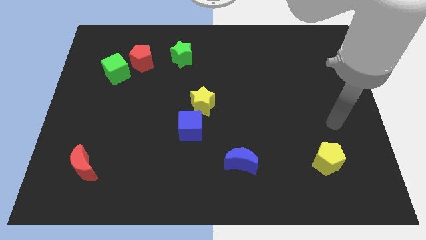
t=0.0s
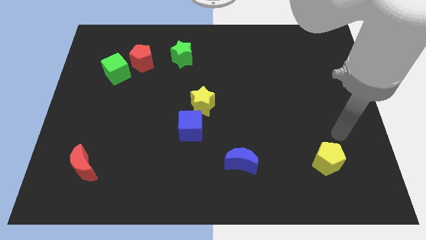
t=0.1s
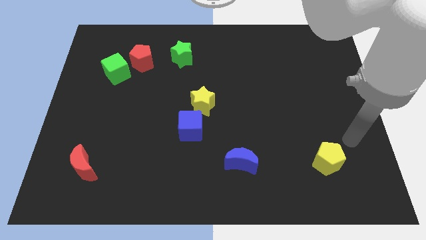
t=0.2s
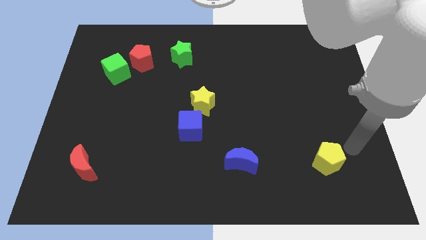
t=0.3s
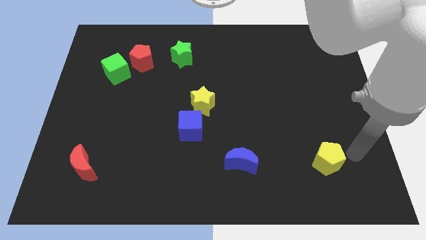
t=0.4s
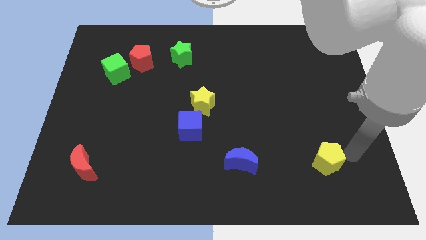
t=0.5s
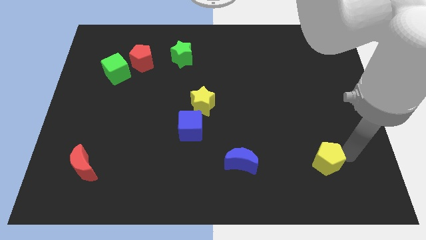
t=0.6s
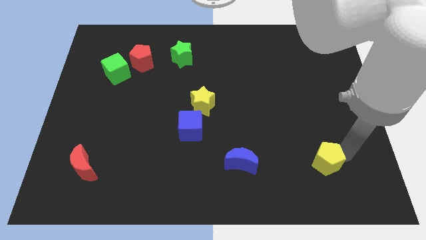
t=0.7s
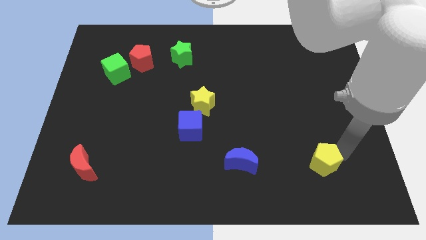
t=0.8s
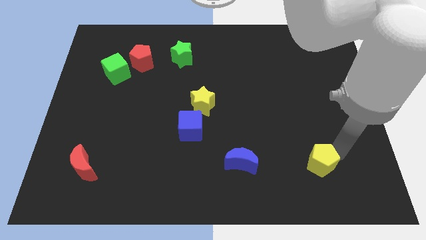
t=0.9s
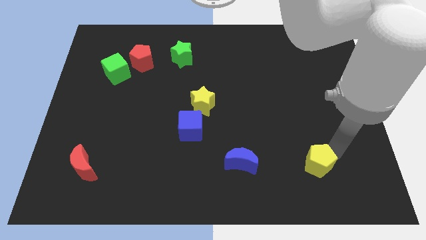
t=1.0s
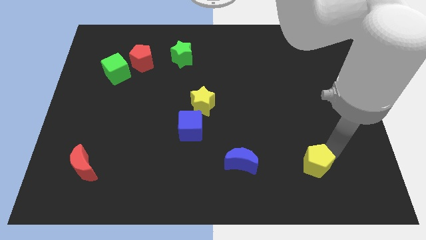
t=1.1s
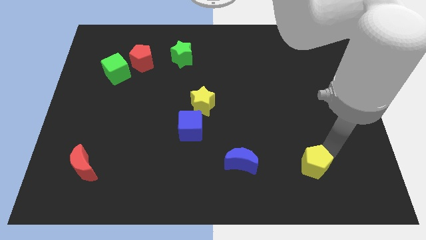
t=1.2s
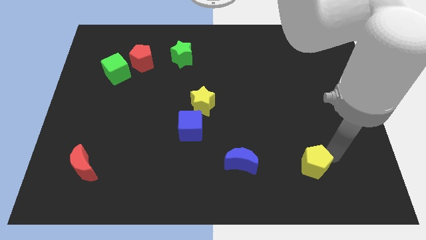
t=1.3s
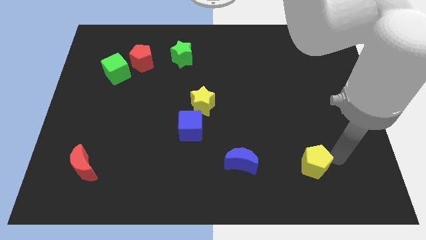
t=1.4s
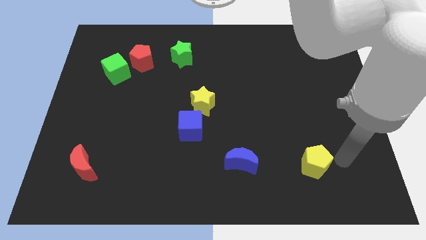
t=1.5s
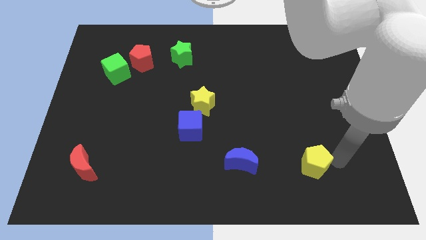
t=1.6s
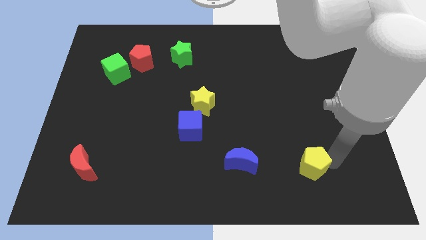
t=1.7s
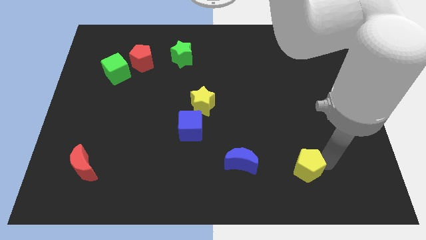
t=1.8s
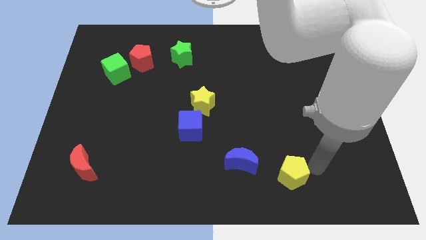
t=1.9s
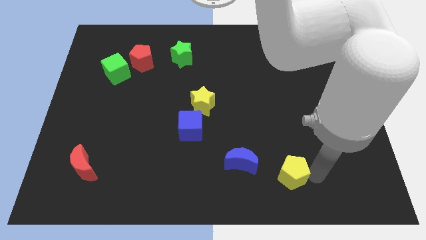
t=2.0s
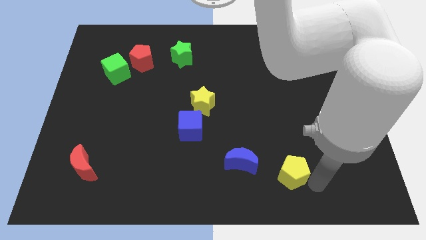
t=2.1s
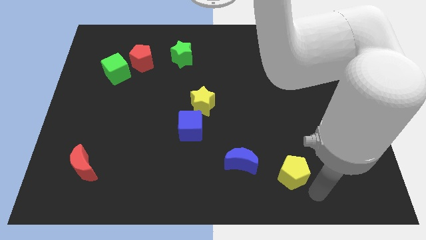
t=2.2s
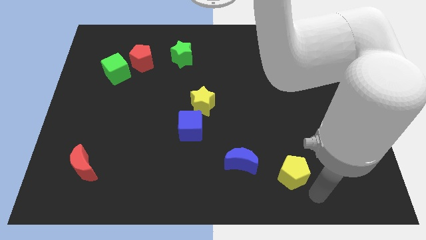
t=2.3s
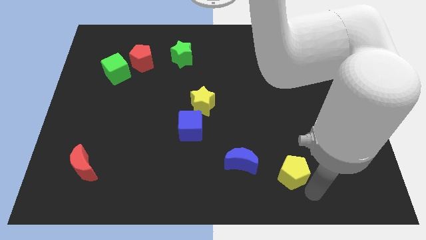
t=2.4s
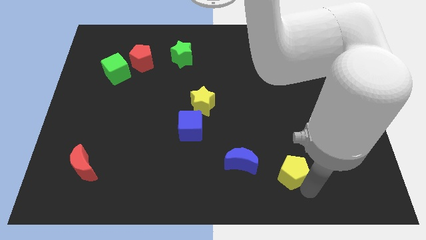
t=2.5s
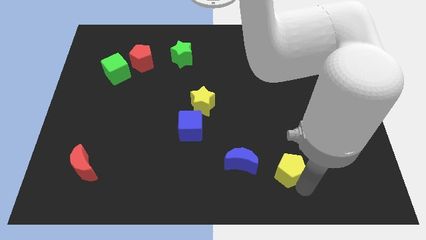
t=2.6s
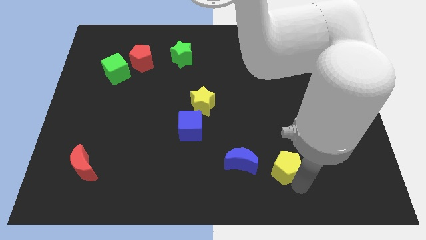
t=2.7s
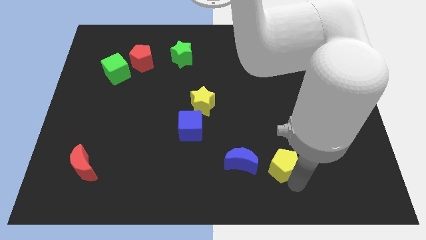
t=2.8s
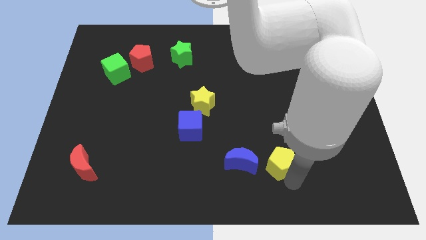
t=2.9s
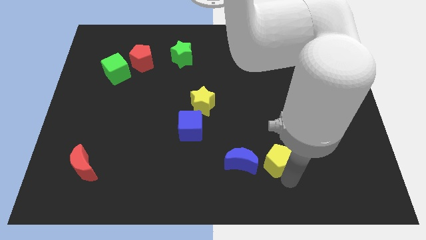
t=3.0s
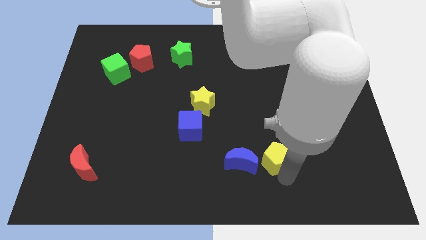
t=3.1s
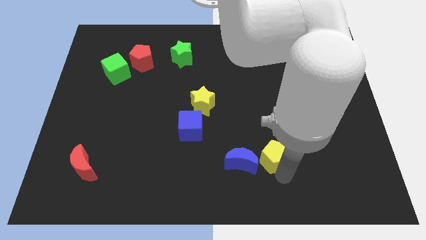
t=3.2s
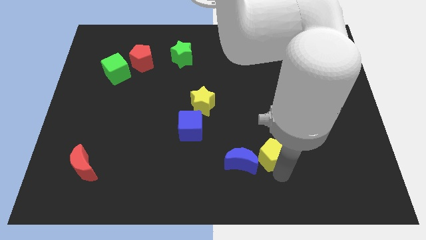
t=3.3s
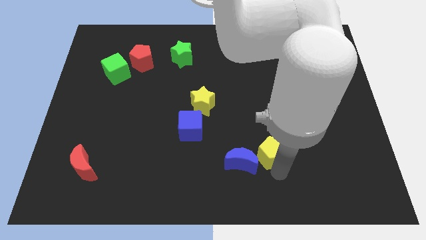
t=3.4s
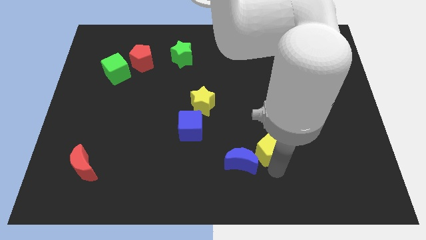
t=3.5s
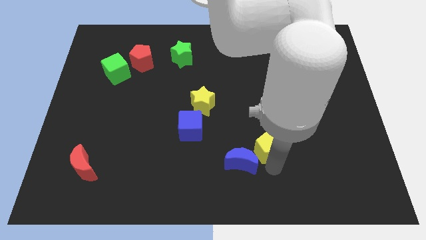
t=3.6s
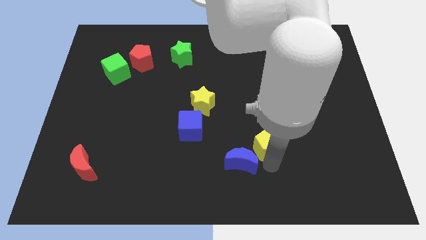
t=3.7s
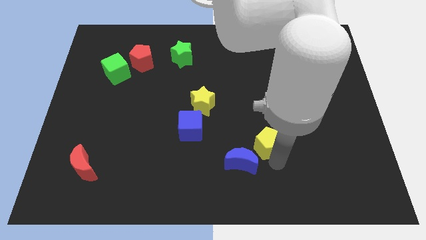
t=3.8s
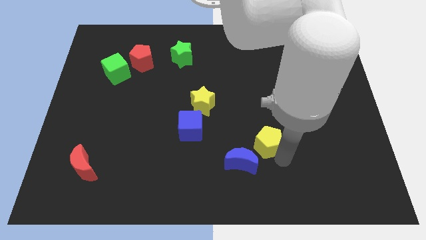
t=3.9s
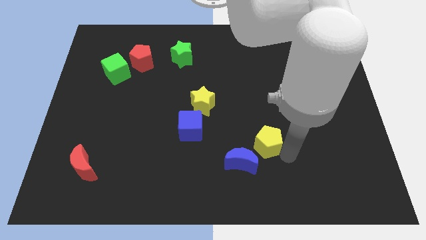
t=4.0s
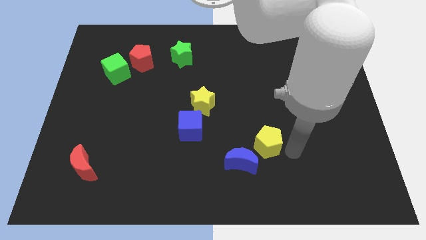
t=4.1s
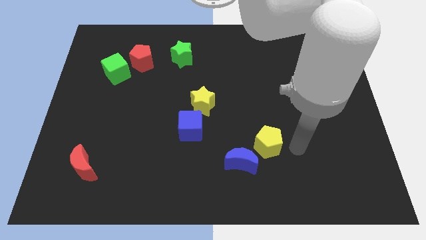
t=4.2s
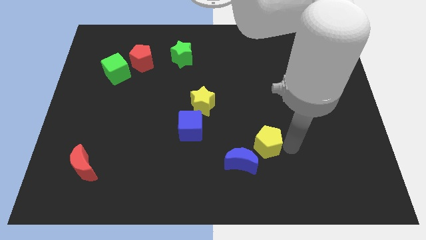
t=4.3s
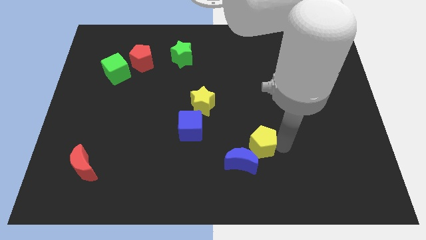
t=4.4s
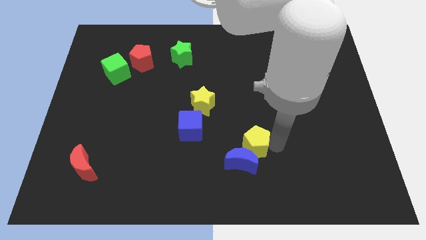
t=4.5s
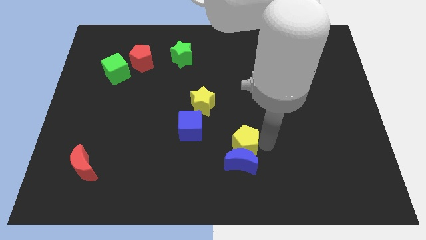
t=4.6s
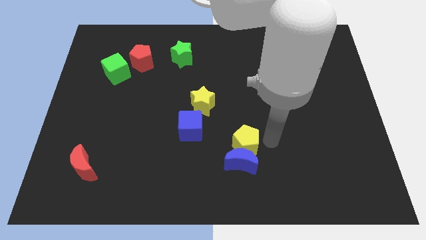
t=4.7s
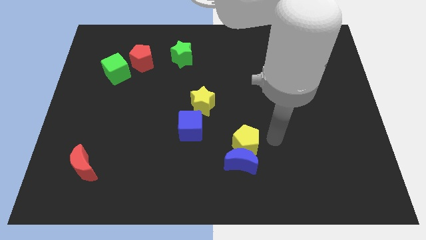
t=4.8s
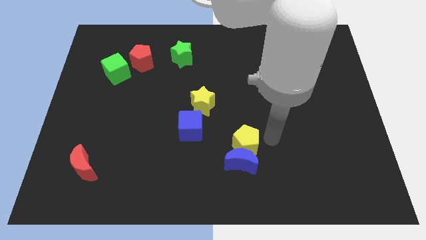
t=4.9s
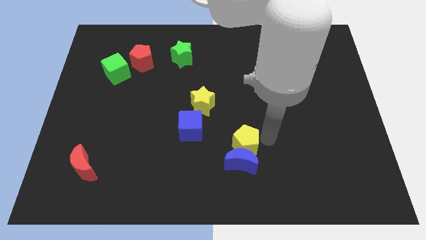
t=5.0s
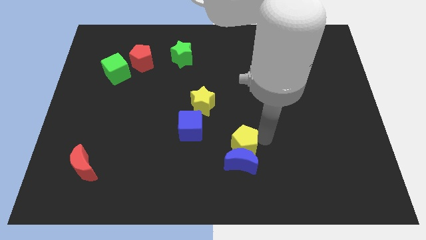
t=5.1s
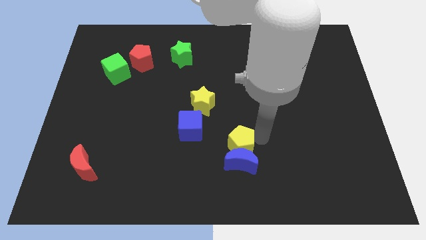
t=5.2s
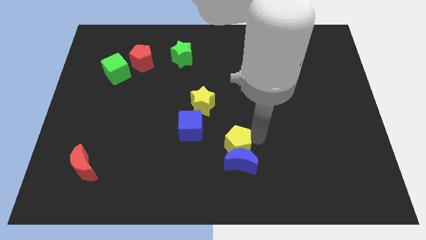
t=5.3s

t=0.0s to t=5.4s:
slide the yellow pentagon to the bottom right of the blue cube

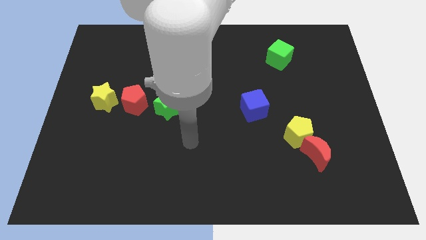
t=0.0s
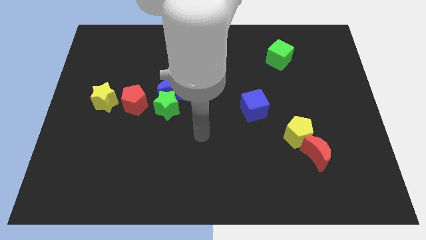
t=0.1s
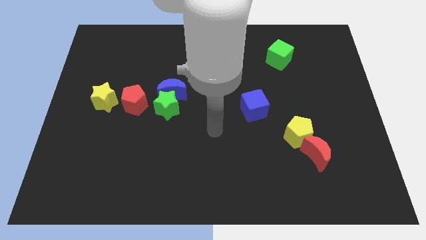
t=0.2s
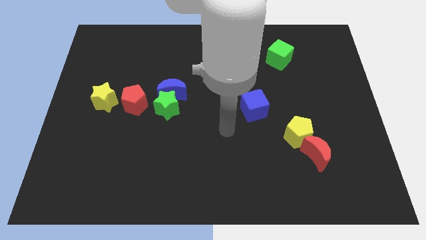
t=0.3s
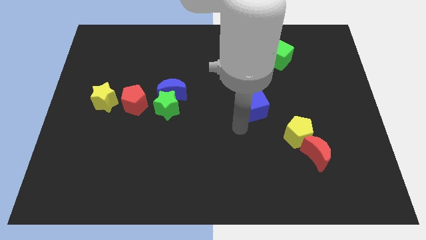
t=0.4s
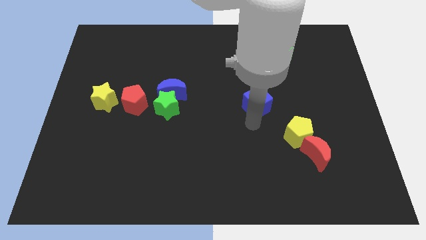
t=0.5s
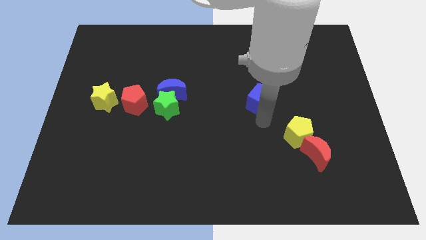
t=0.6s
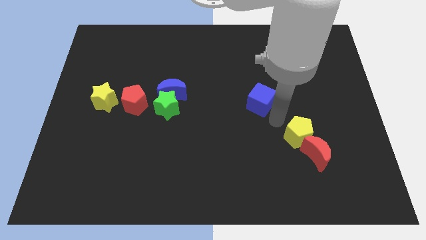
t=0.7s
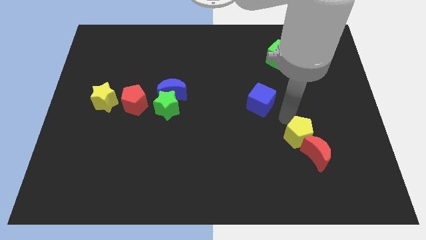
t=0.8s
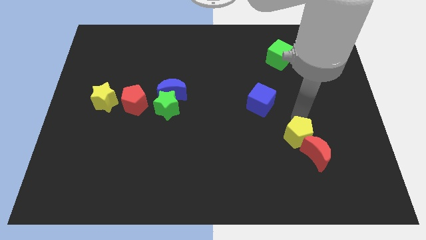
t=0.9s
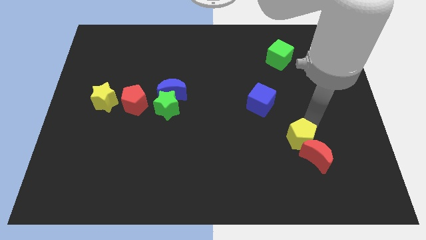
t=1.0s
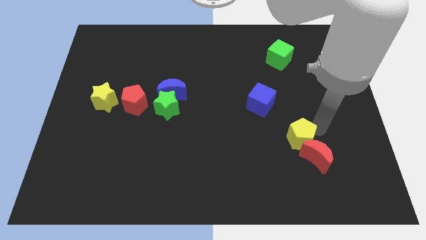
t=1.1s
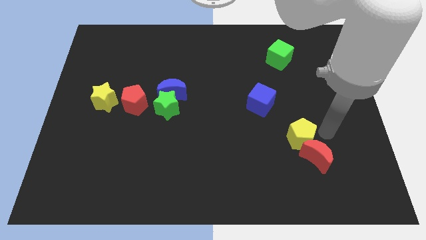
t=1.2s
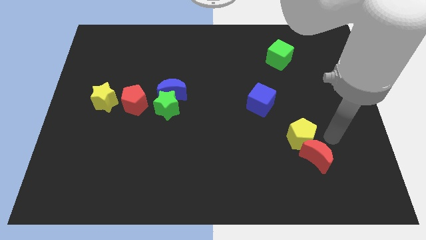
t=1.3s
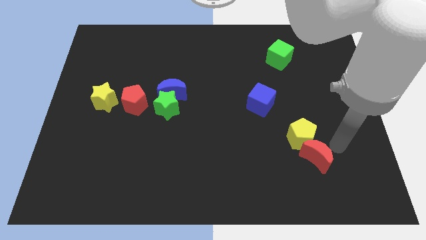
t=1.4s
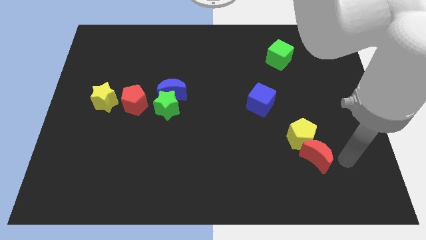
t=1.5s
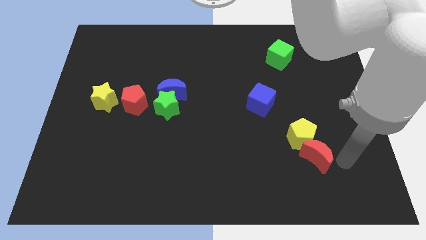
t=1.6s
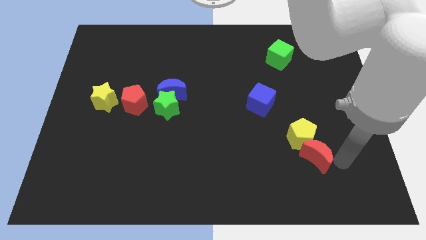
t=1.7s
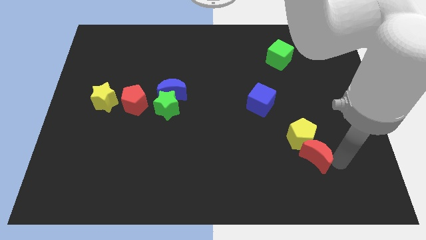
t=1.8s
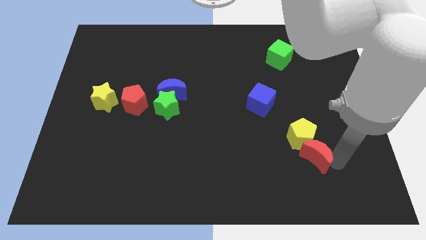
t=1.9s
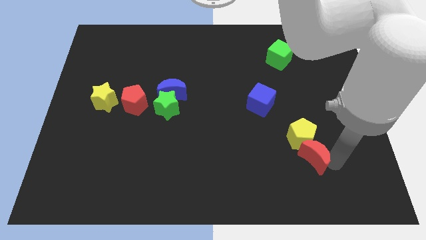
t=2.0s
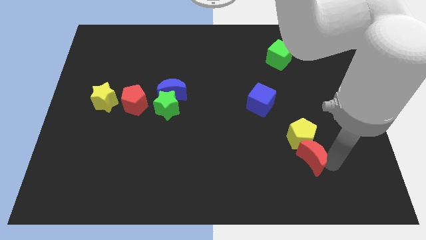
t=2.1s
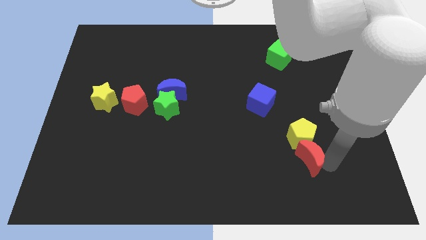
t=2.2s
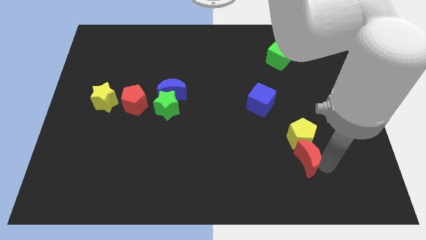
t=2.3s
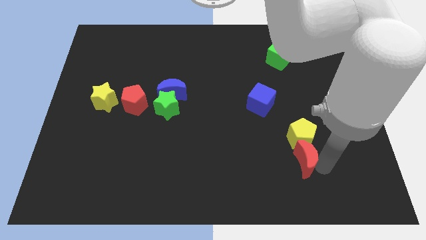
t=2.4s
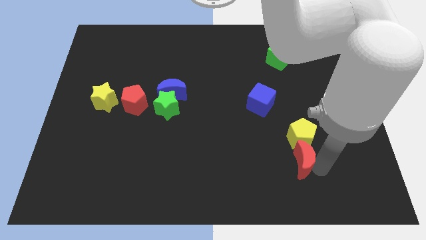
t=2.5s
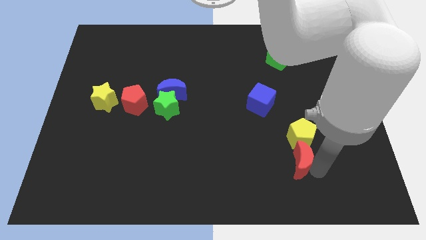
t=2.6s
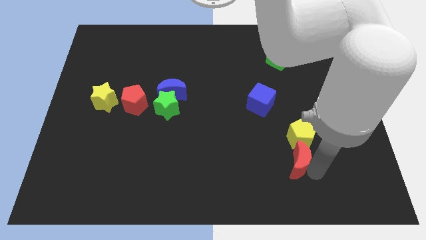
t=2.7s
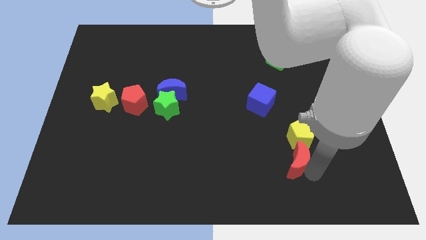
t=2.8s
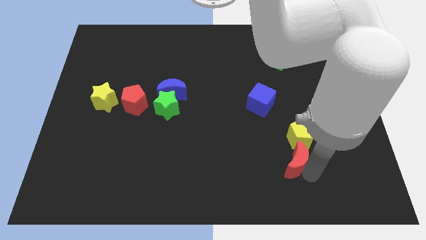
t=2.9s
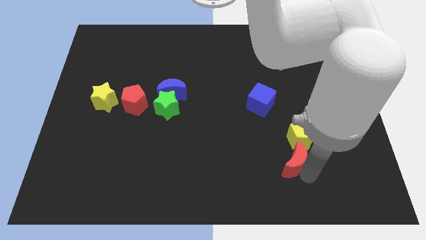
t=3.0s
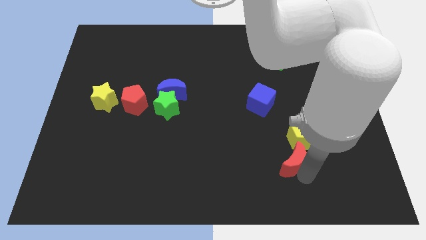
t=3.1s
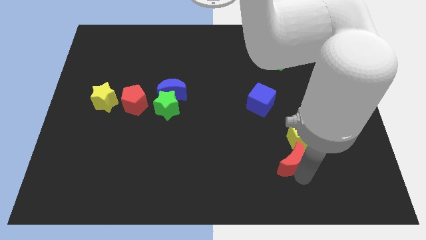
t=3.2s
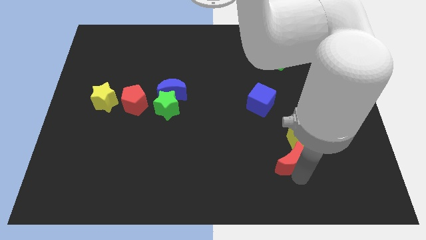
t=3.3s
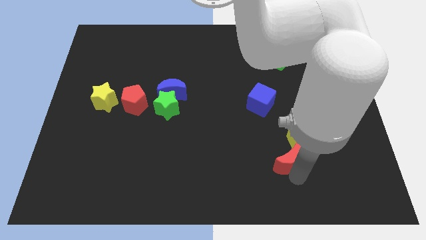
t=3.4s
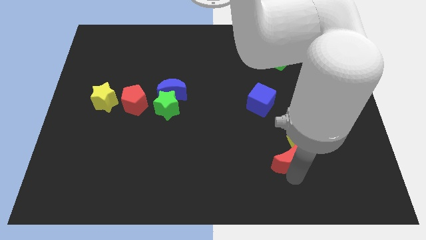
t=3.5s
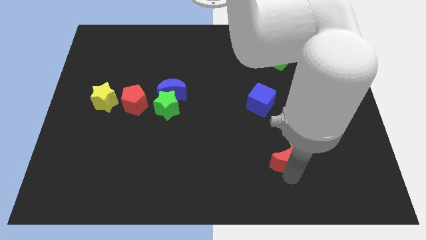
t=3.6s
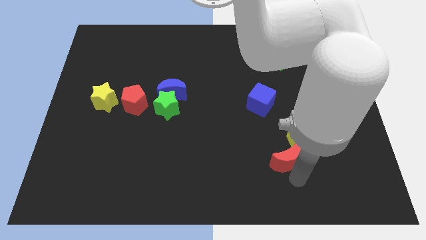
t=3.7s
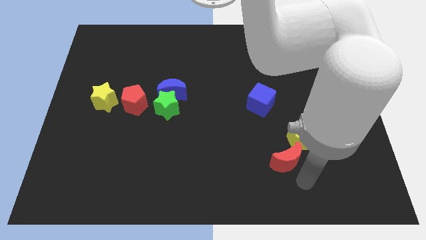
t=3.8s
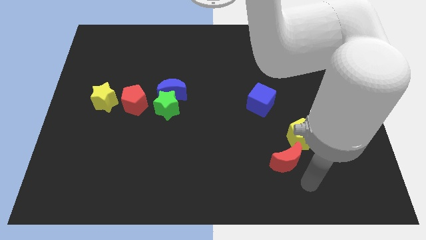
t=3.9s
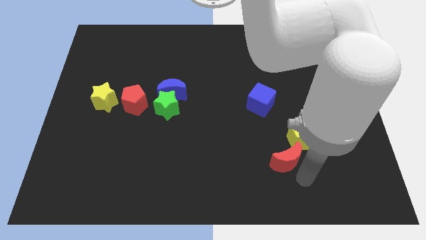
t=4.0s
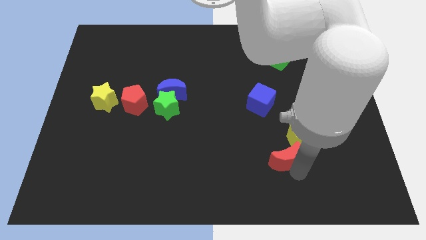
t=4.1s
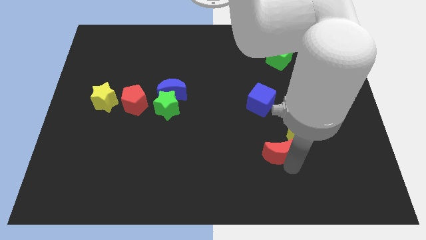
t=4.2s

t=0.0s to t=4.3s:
push the red moon below the blue cube
